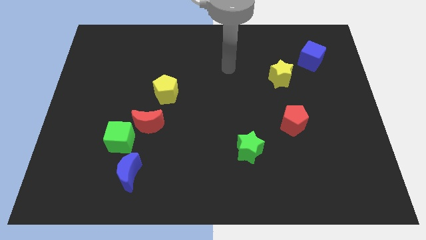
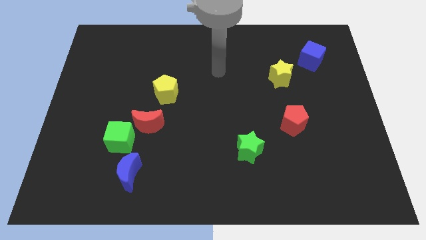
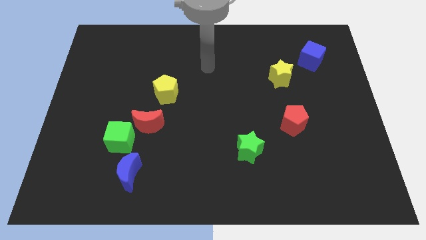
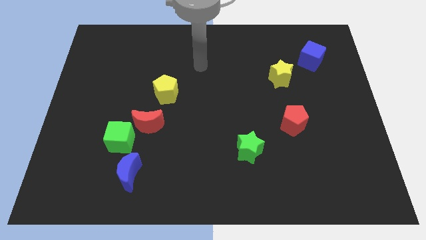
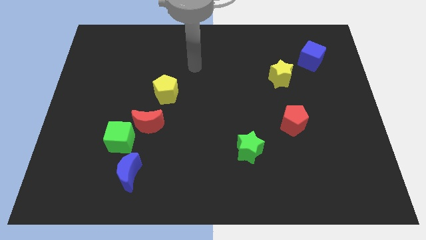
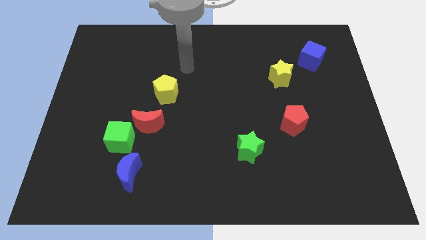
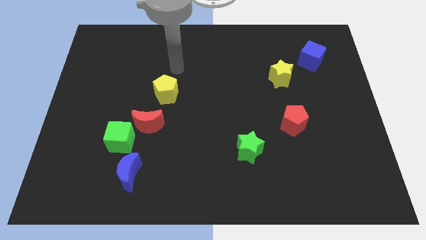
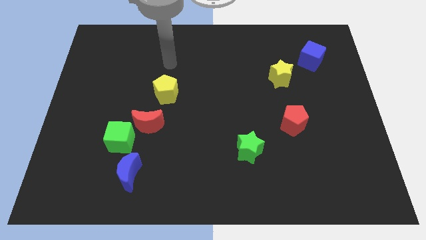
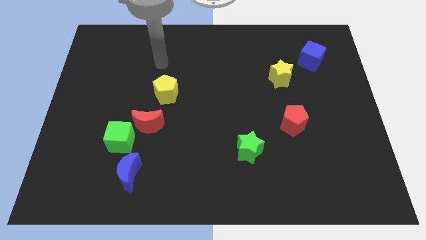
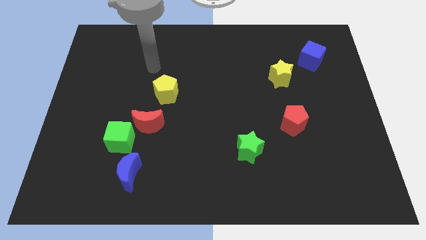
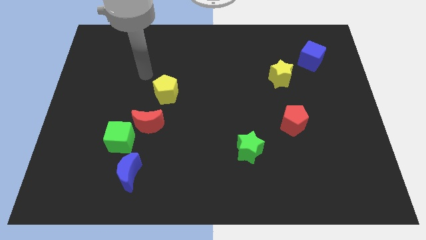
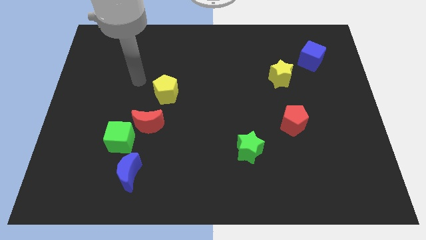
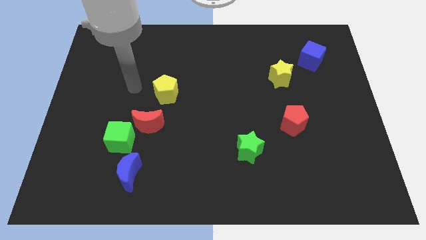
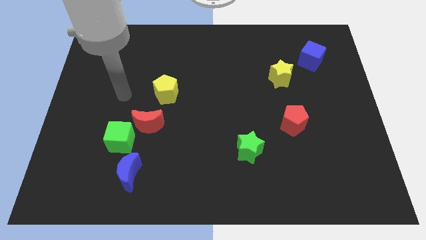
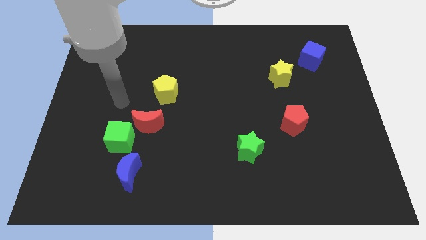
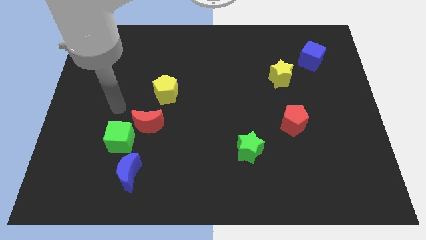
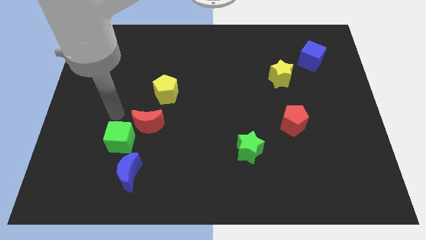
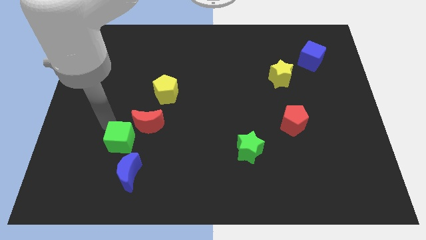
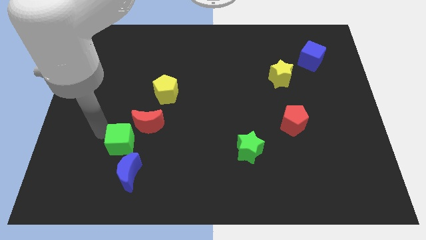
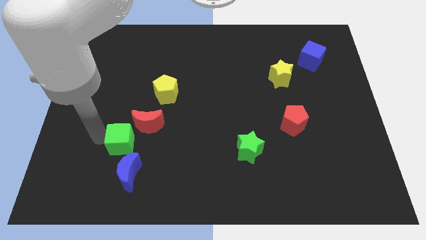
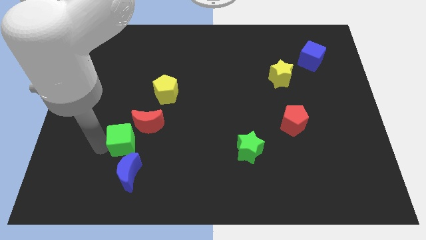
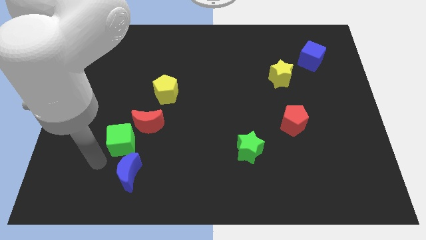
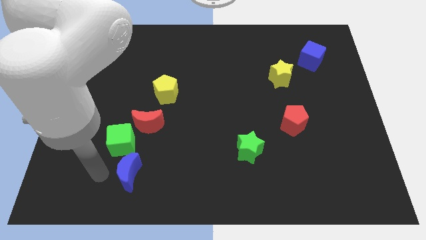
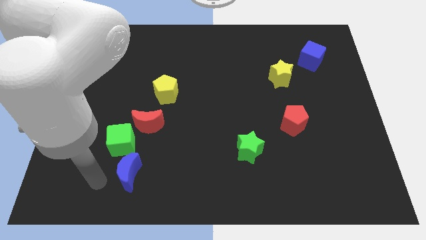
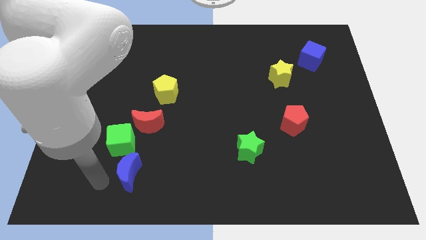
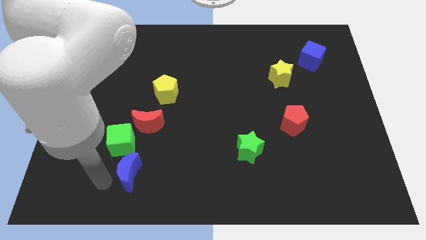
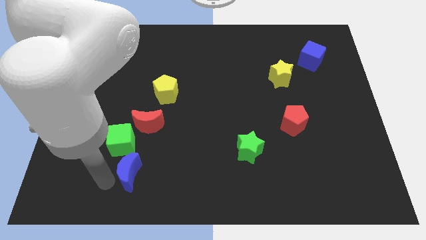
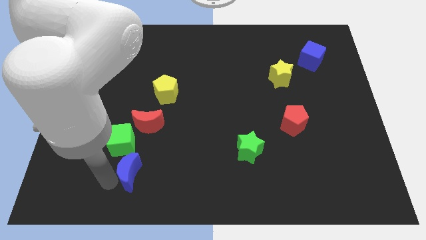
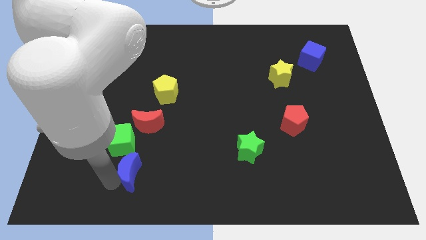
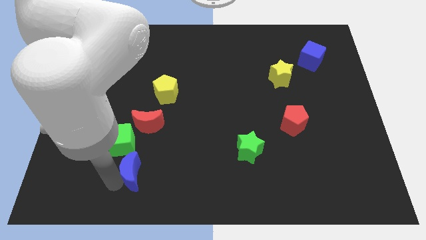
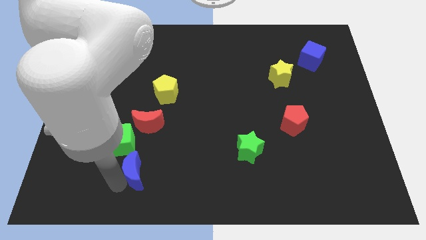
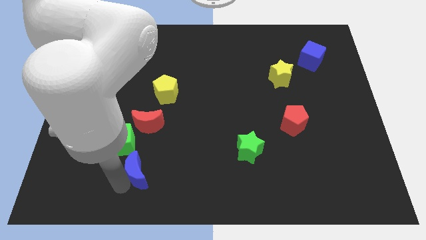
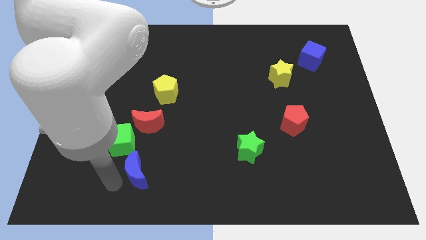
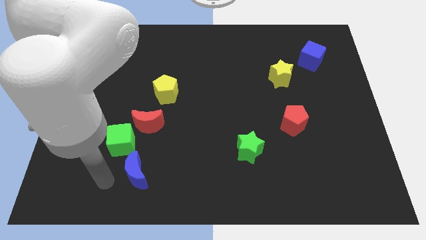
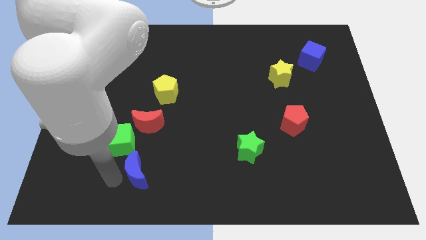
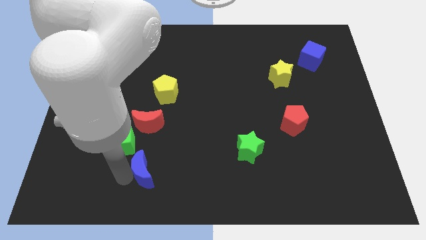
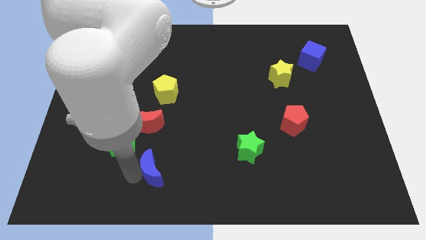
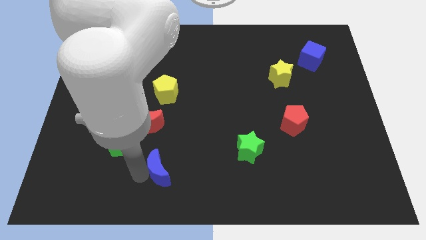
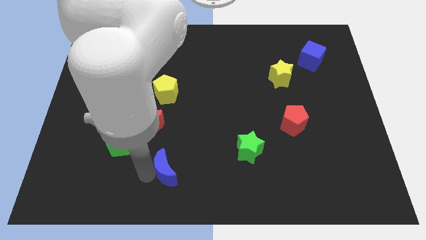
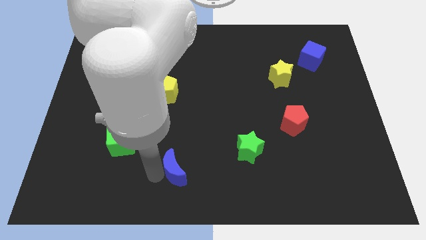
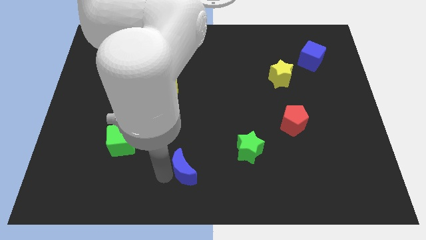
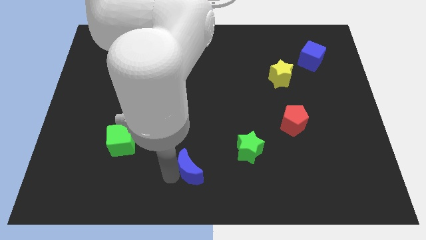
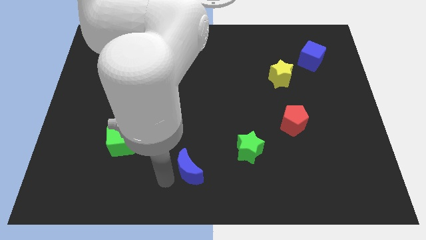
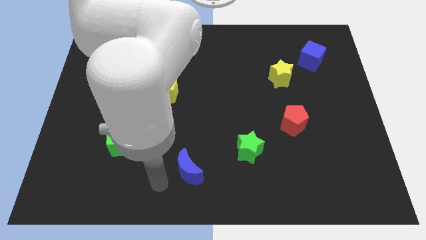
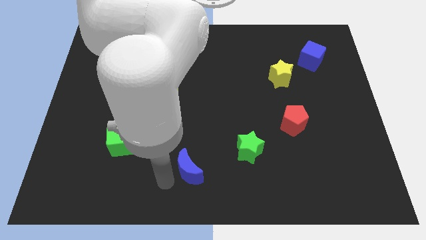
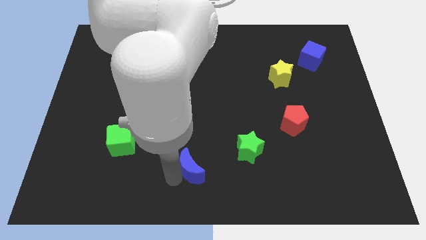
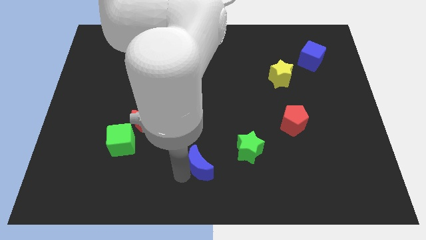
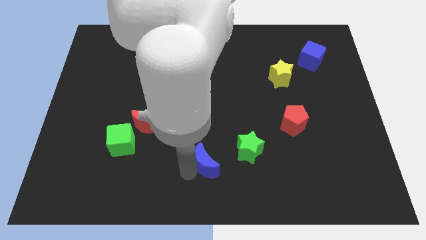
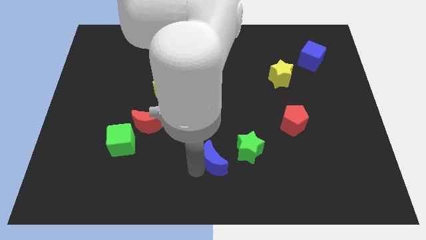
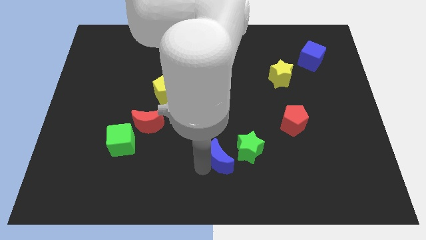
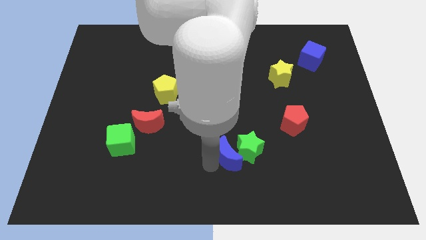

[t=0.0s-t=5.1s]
push the blue moon next to the green star

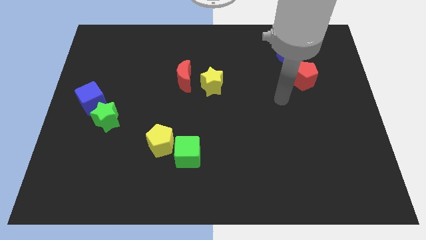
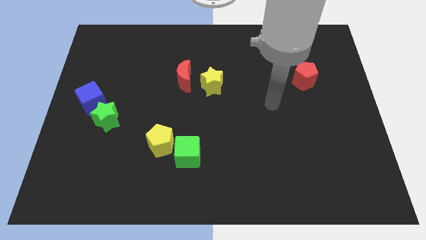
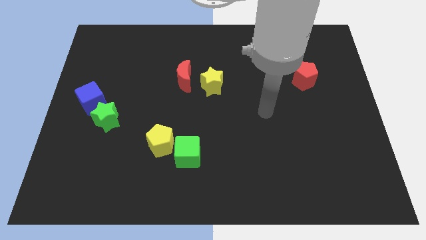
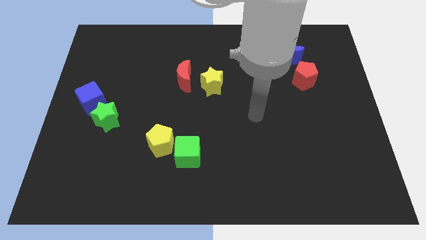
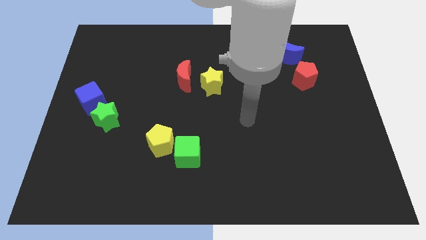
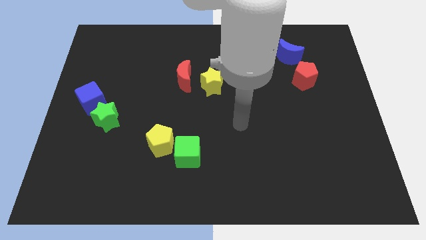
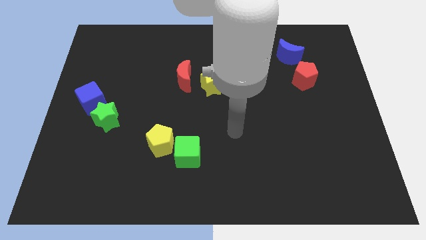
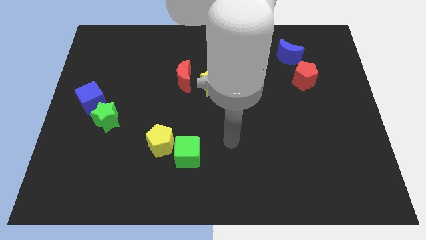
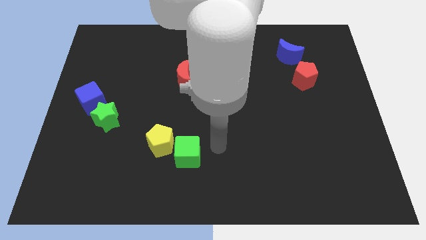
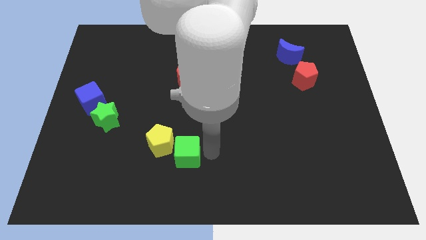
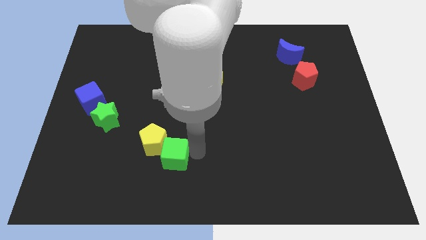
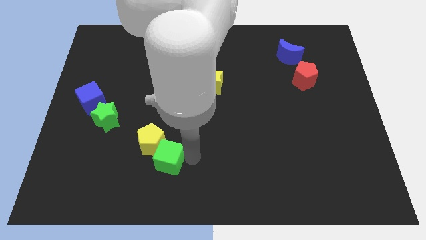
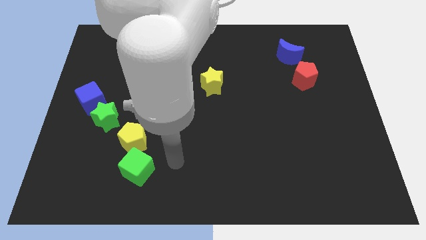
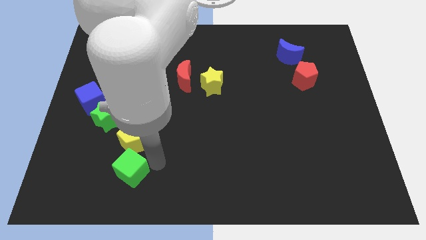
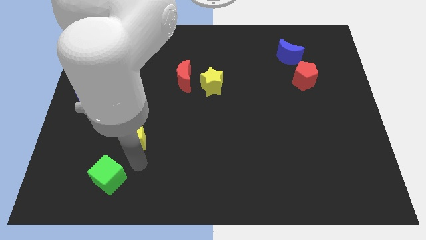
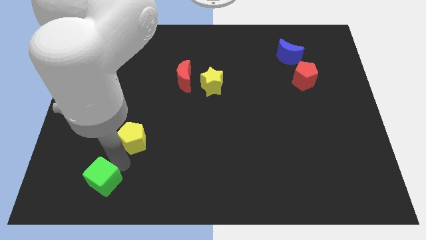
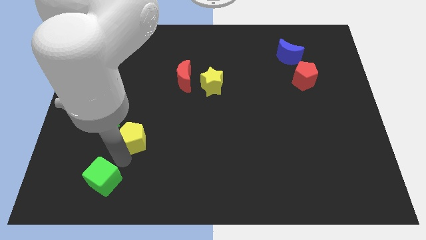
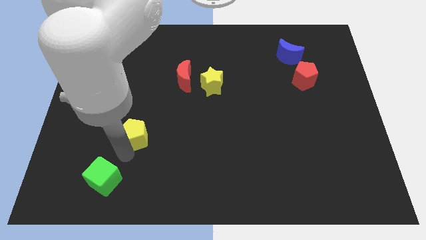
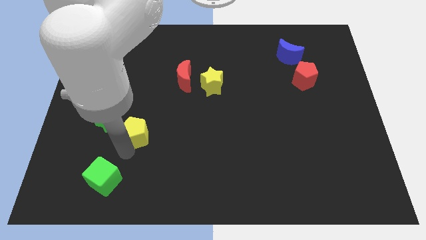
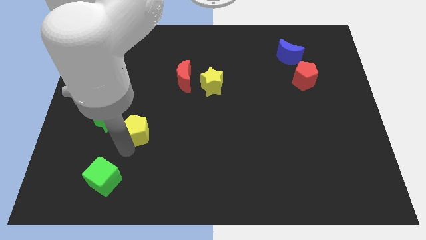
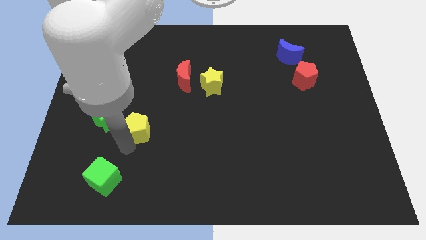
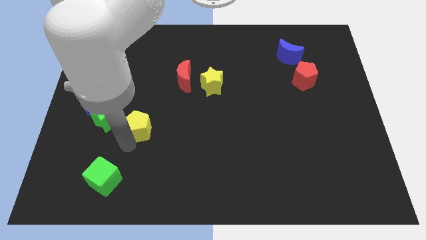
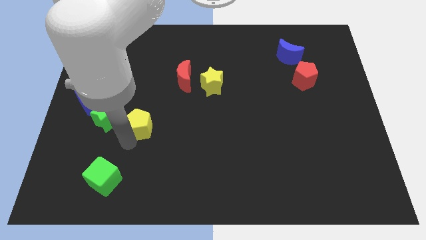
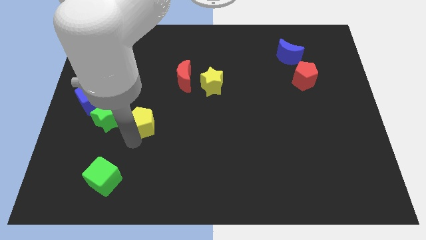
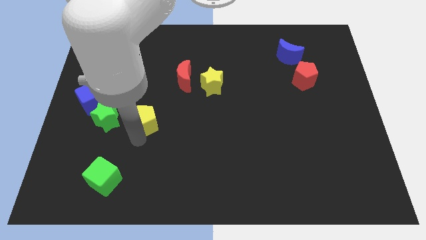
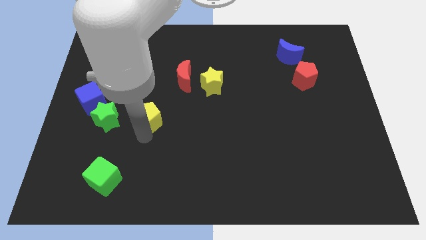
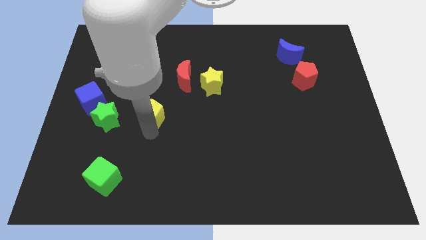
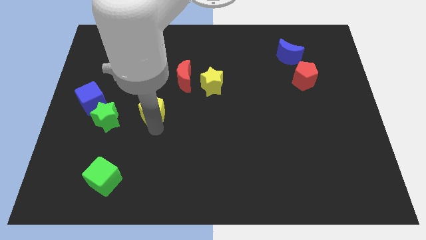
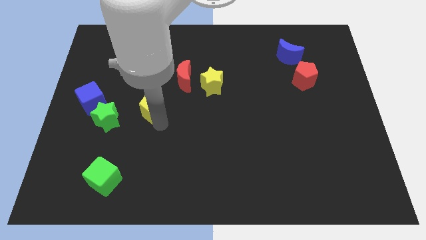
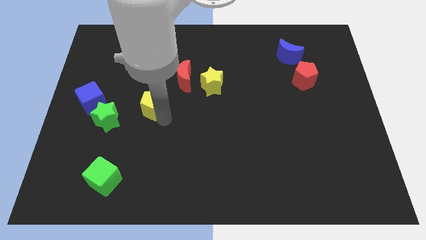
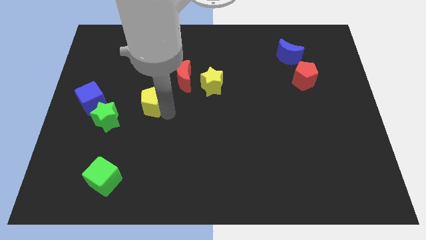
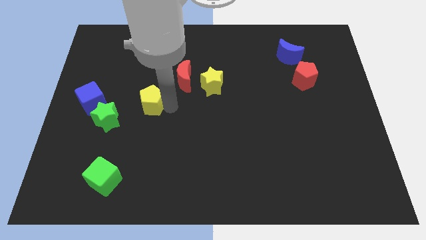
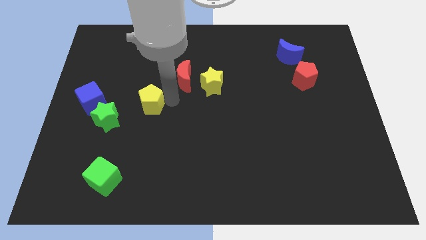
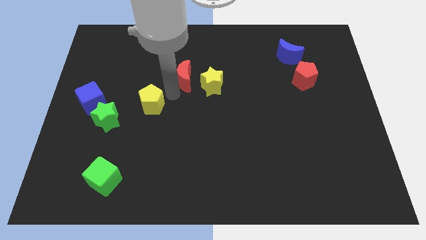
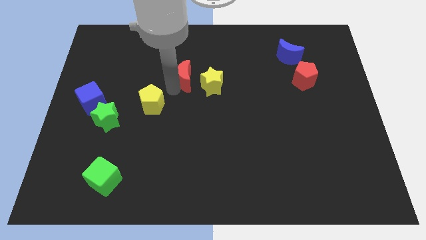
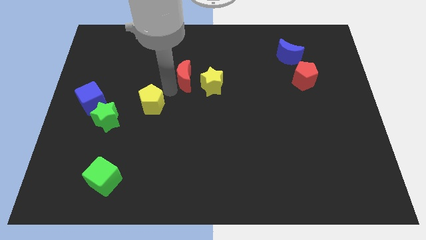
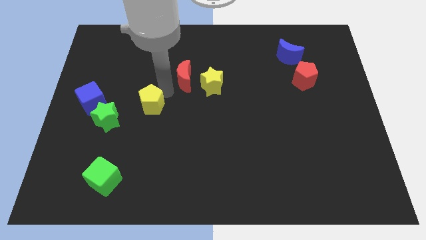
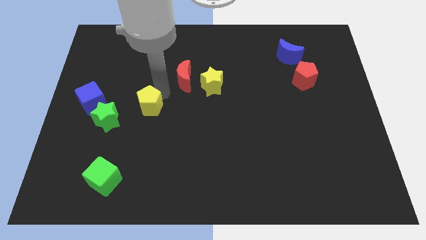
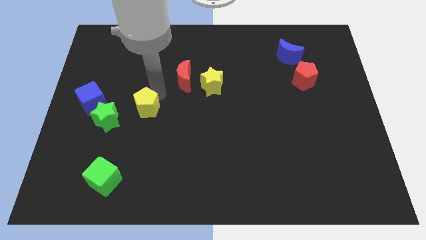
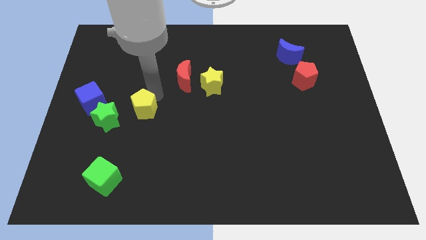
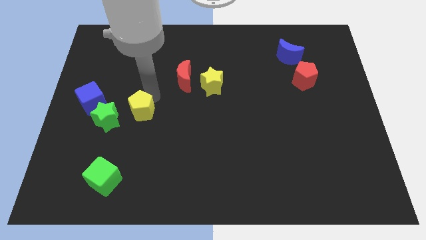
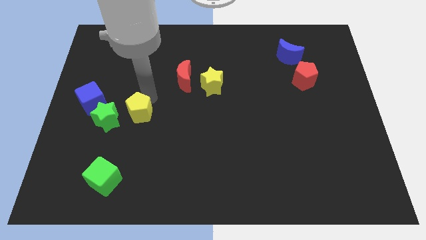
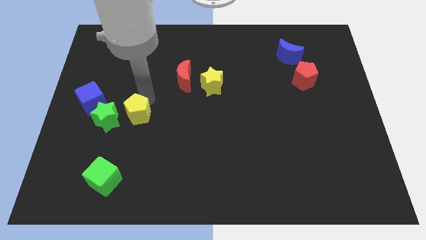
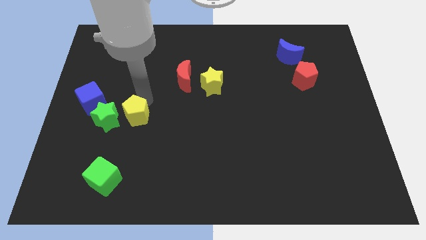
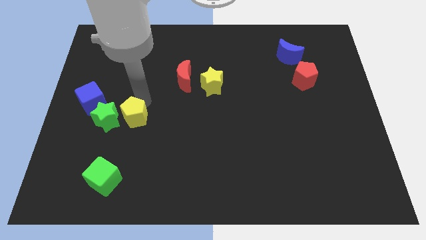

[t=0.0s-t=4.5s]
put the yellow pentagon next to the green star
